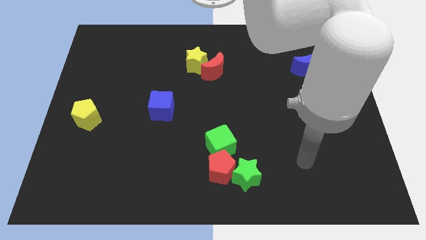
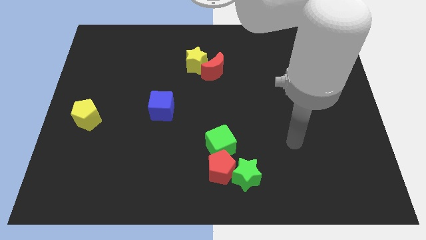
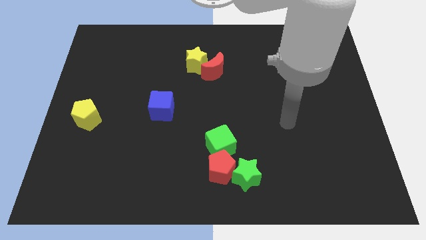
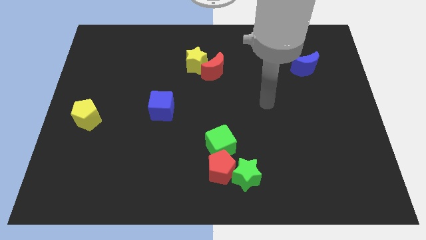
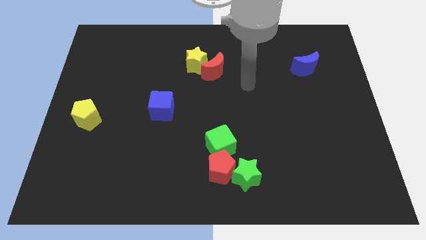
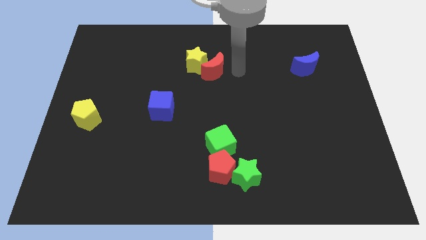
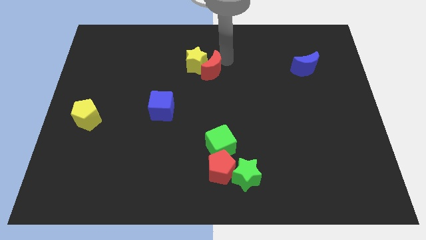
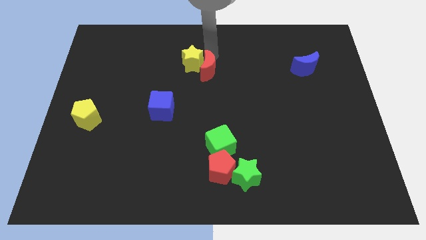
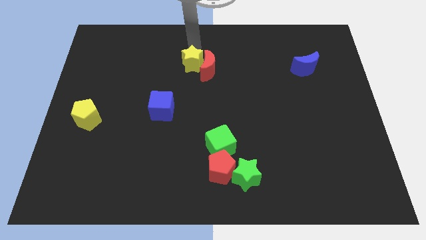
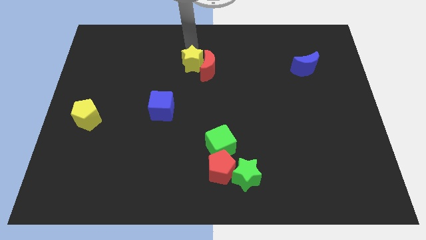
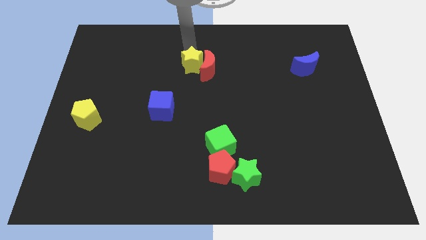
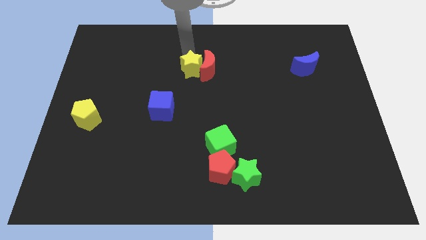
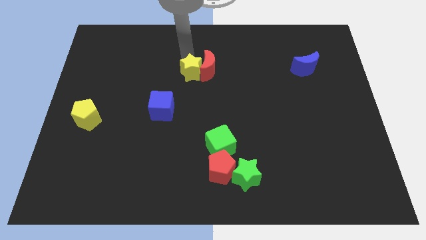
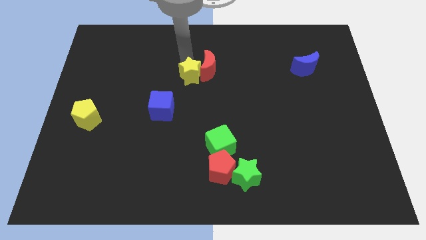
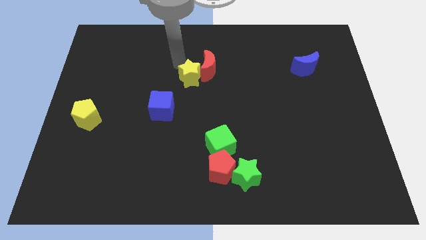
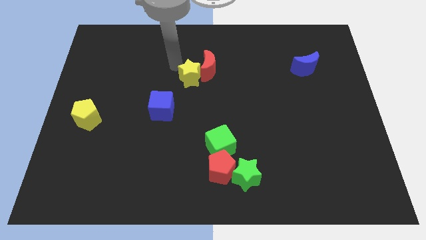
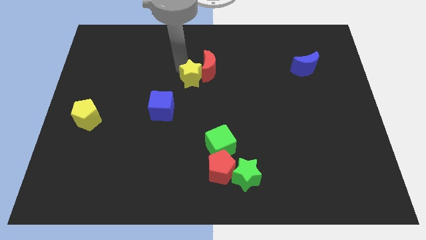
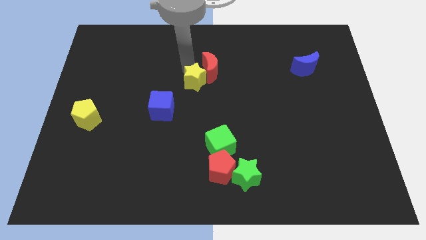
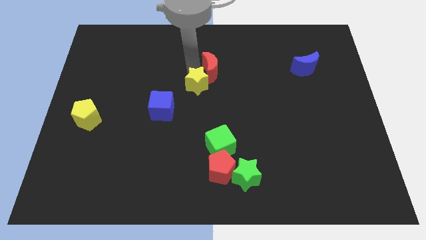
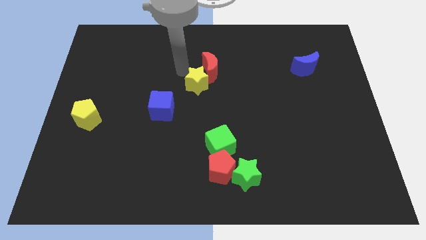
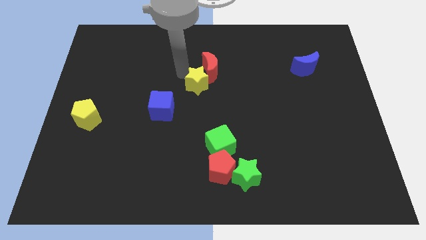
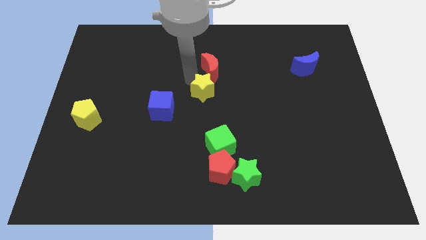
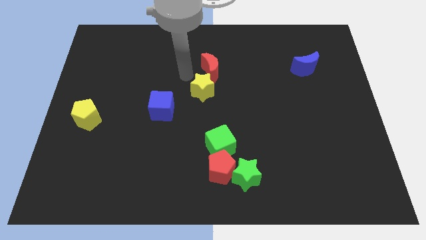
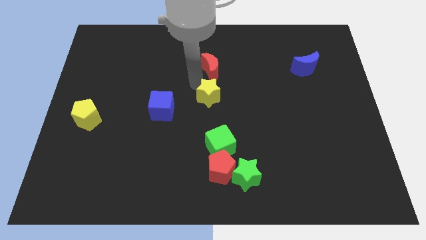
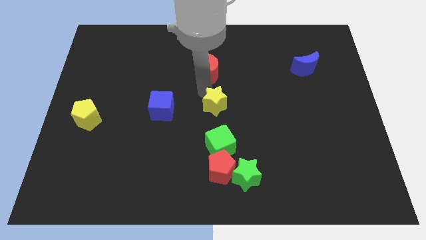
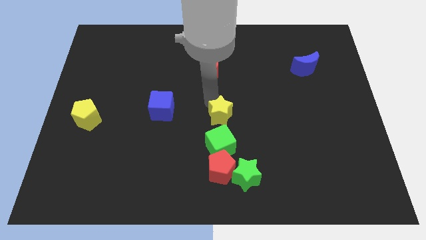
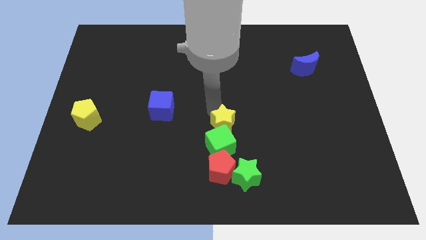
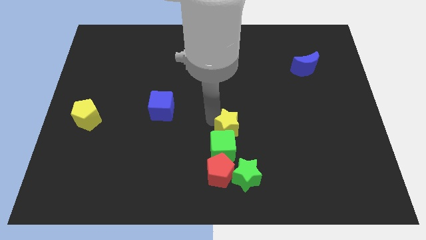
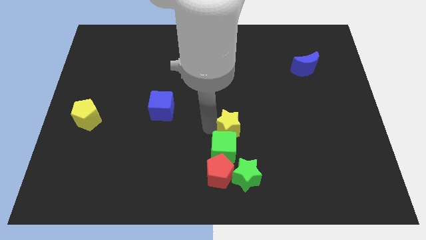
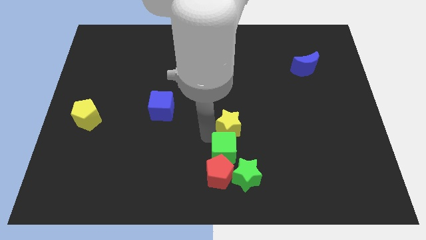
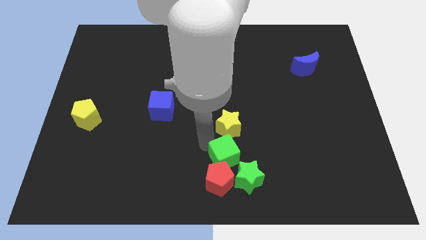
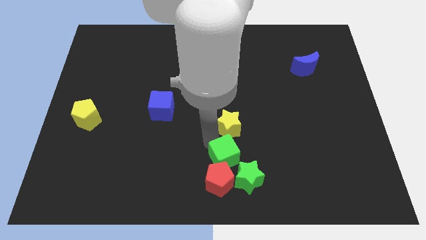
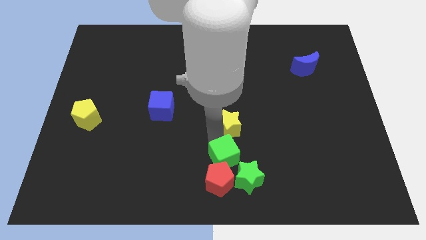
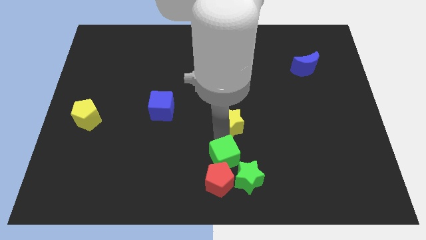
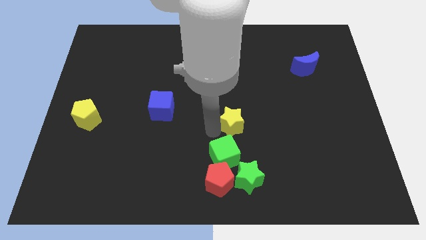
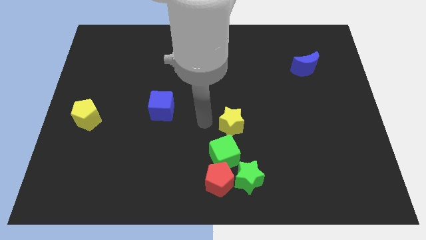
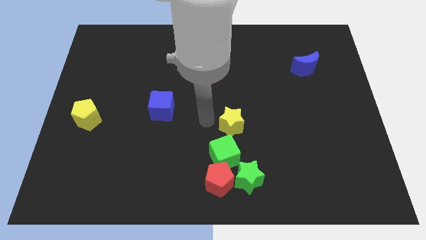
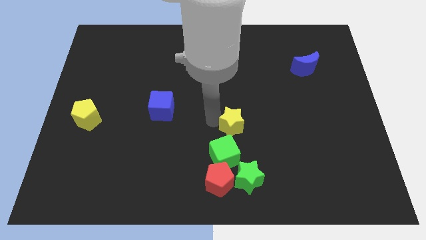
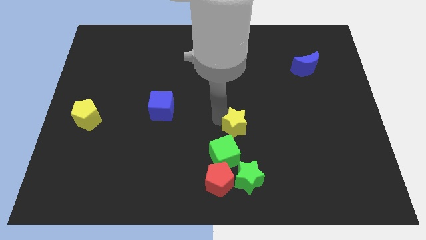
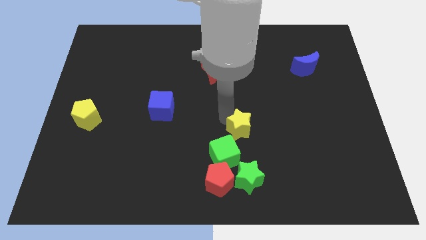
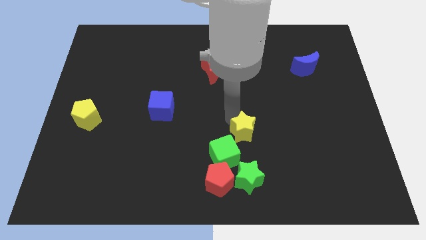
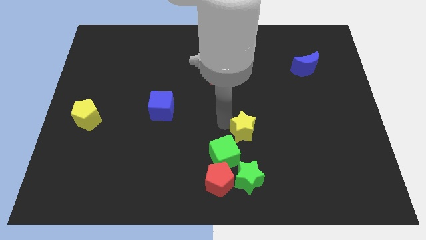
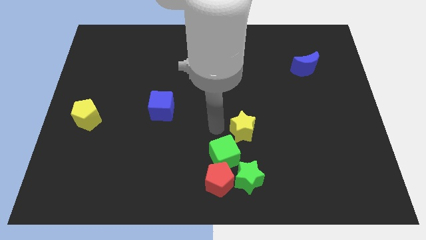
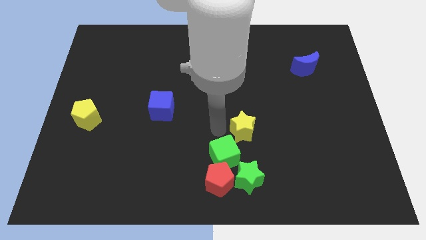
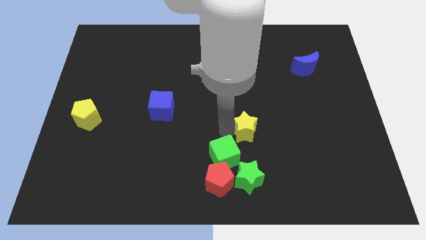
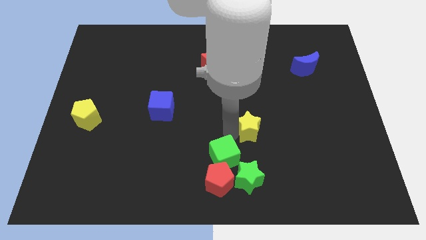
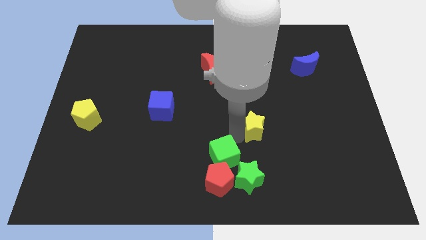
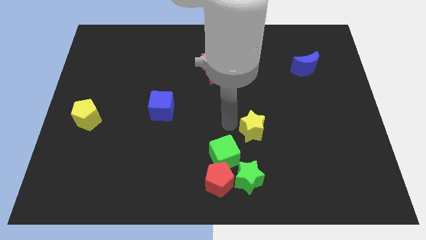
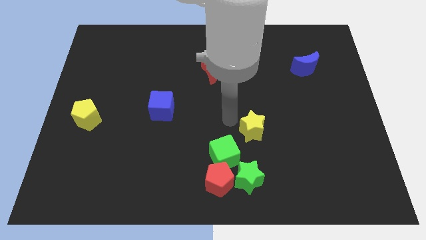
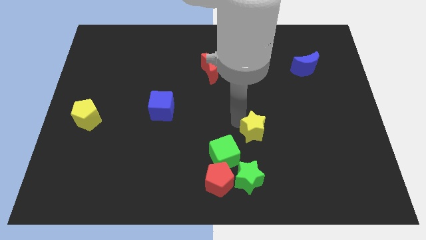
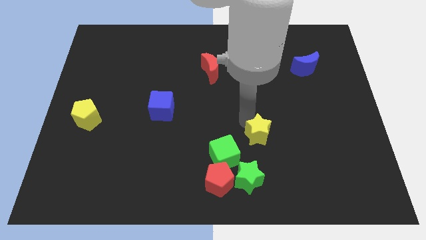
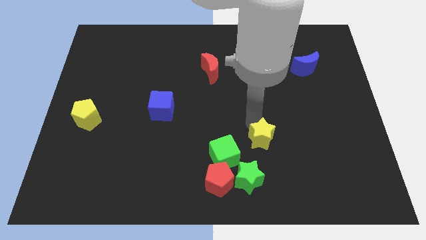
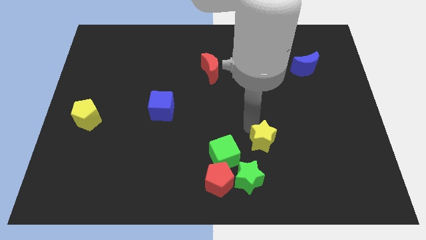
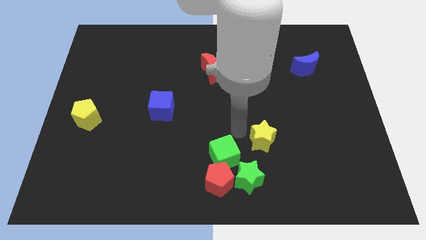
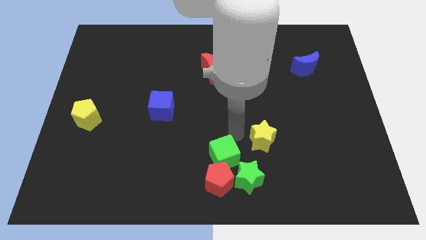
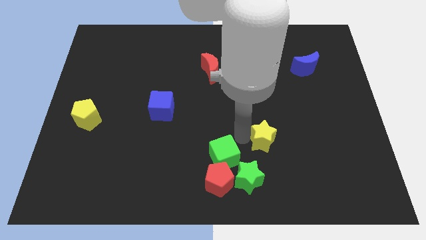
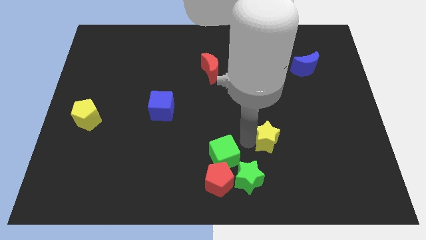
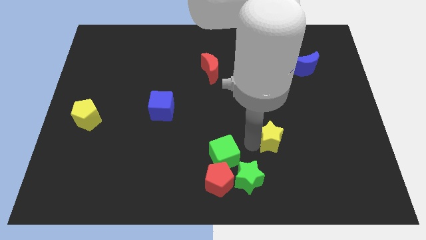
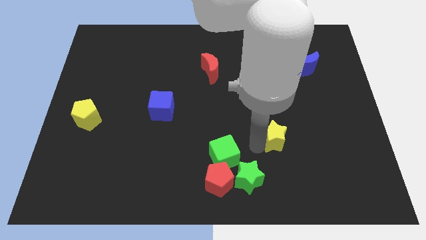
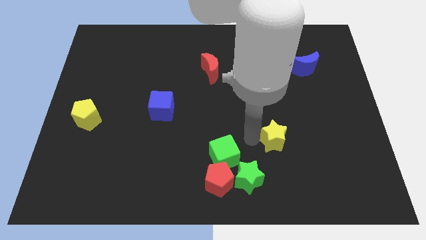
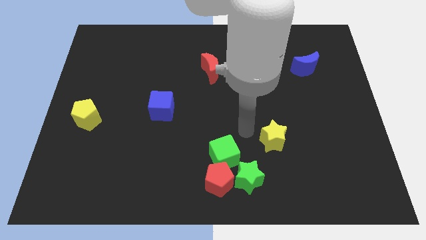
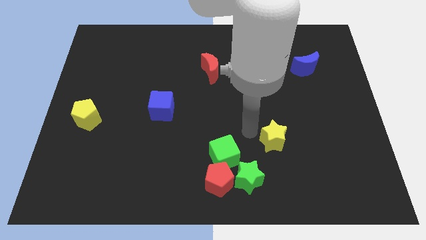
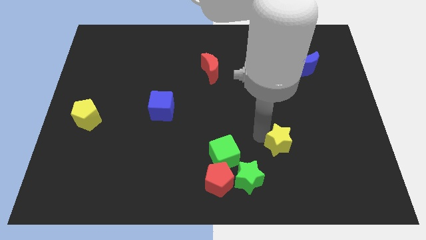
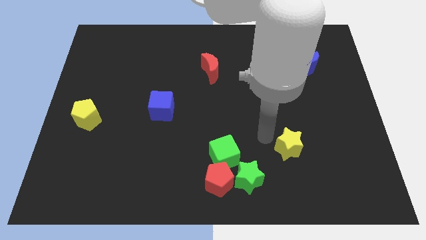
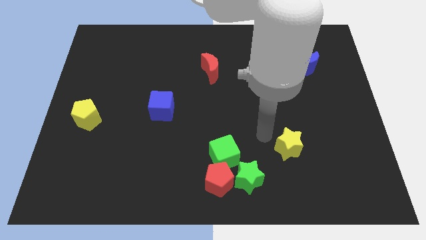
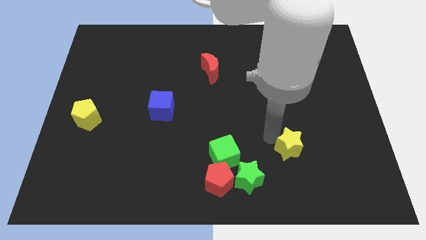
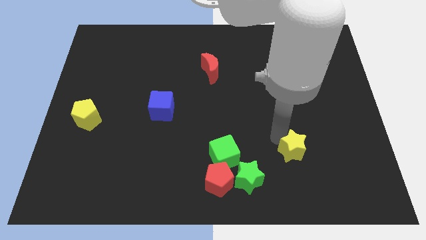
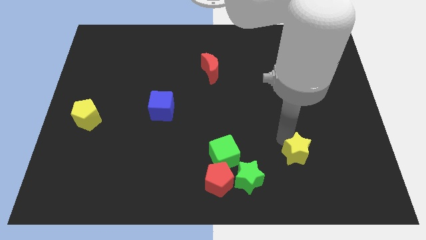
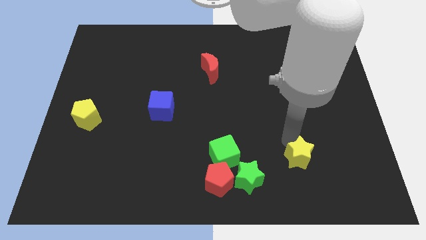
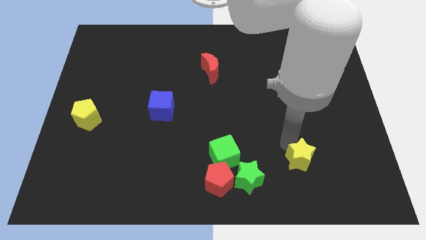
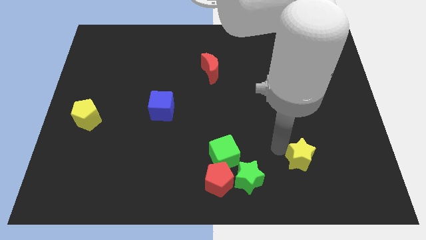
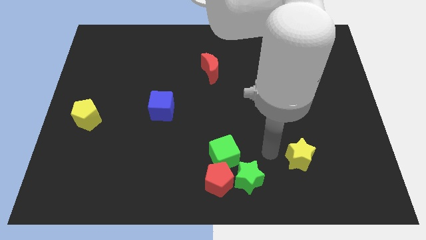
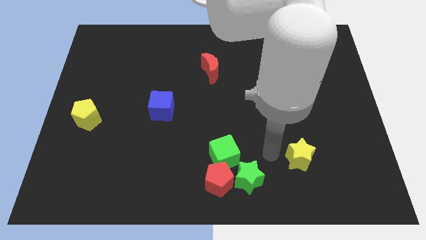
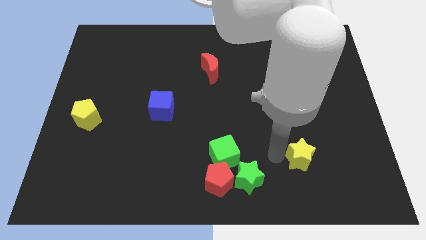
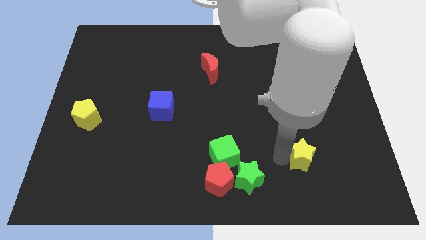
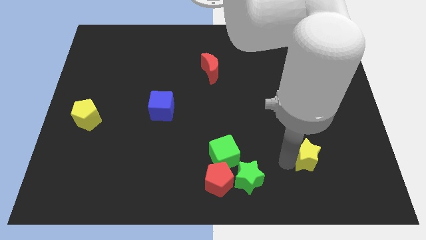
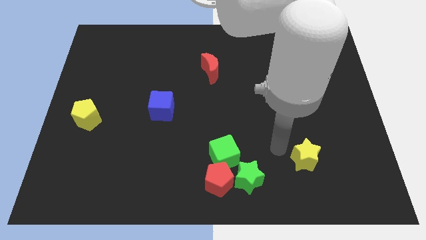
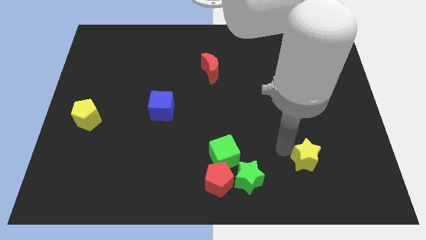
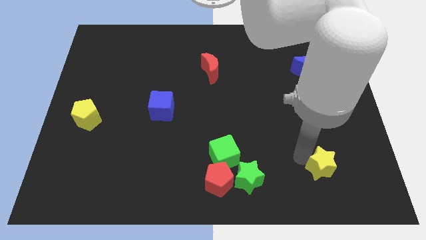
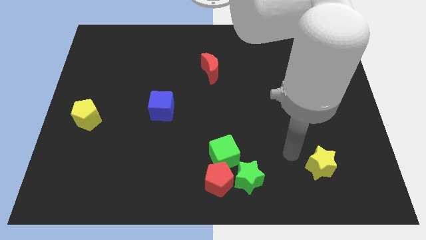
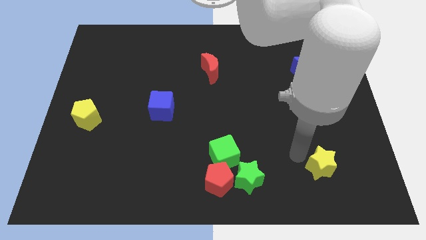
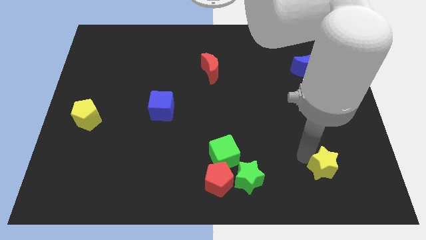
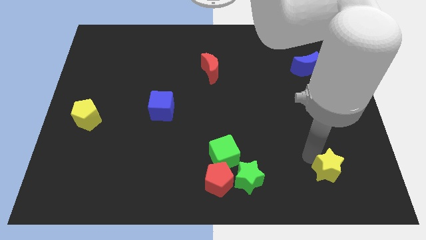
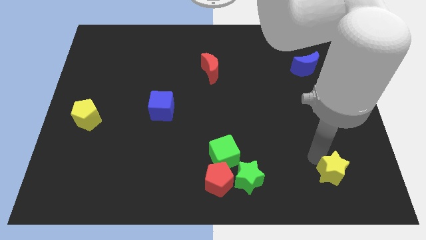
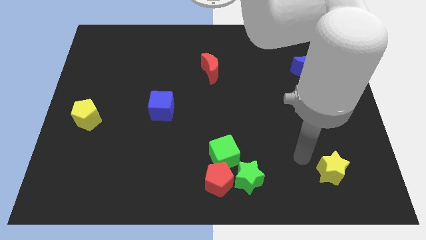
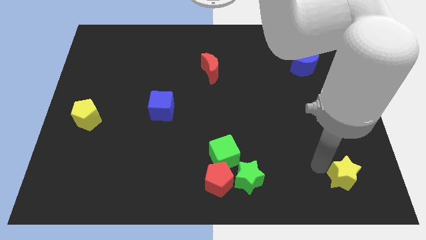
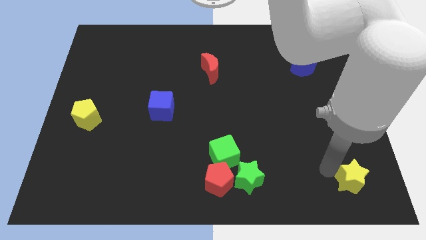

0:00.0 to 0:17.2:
slide the yellow star to the bottom right
